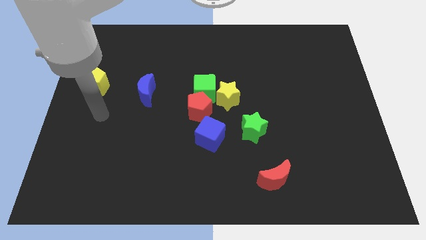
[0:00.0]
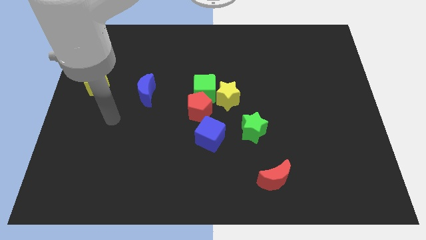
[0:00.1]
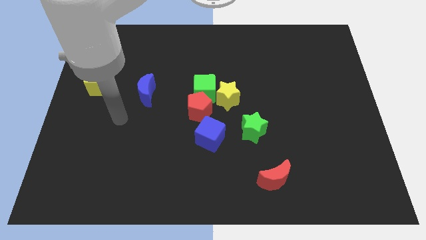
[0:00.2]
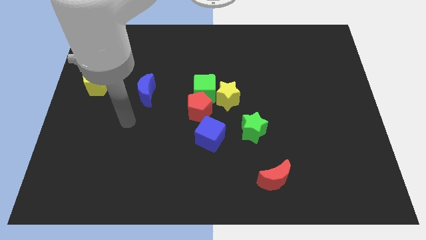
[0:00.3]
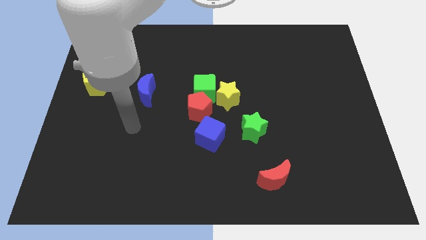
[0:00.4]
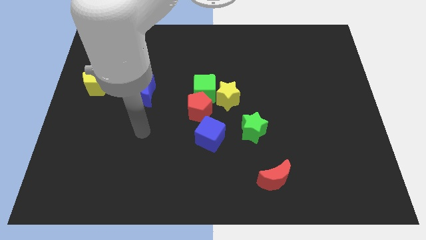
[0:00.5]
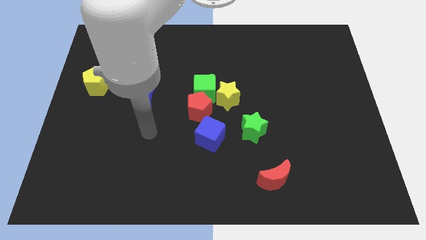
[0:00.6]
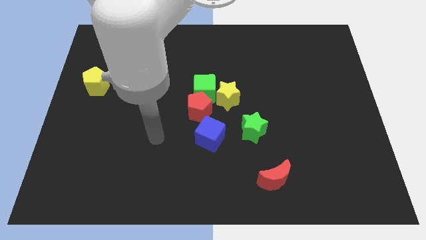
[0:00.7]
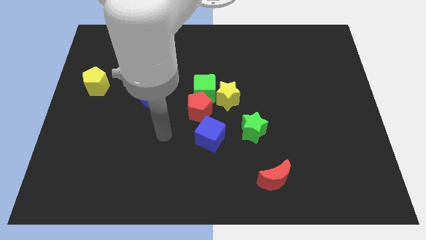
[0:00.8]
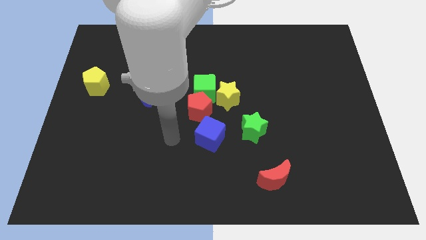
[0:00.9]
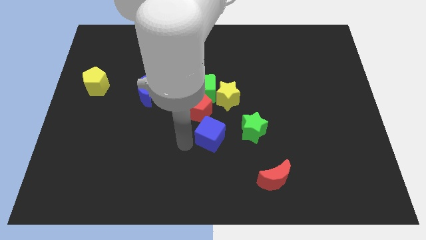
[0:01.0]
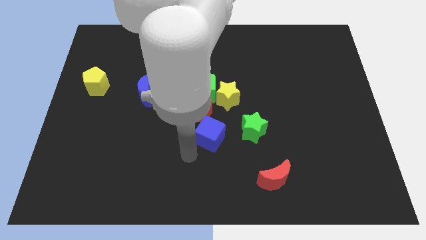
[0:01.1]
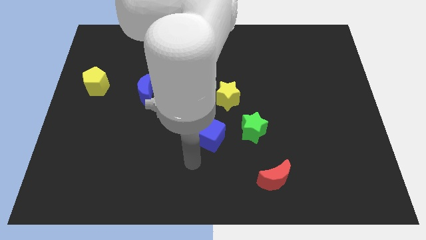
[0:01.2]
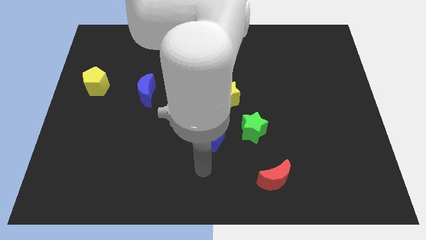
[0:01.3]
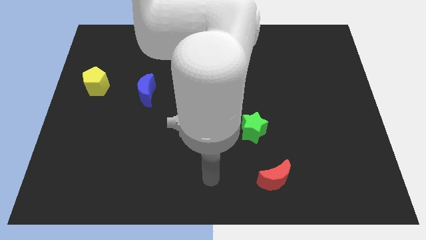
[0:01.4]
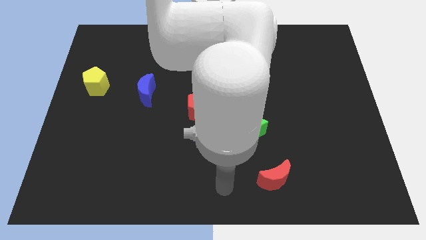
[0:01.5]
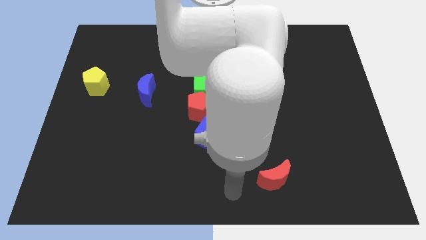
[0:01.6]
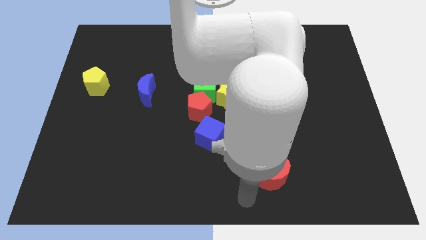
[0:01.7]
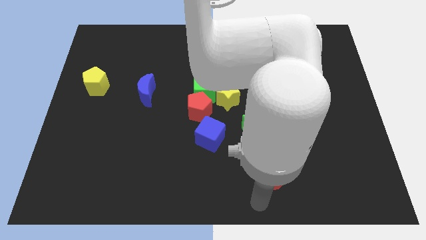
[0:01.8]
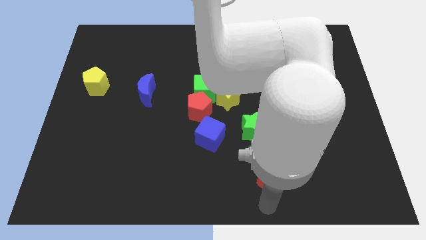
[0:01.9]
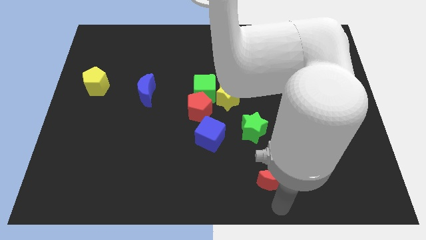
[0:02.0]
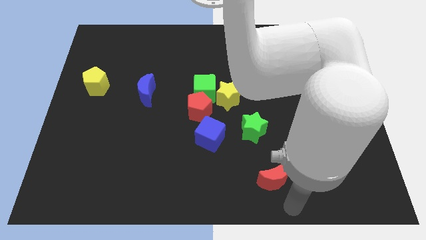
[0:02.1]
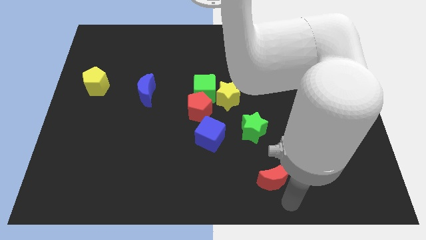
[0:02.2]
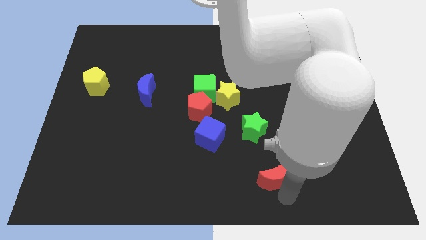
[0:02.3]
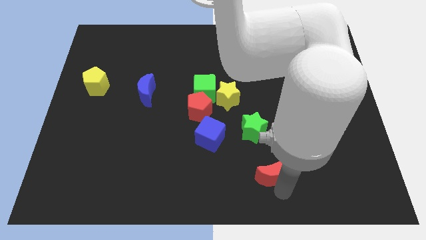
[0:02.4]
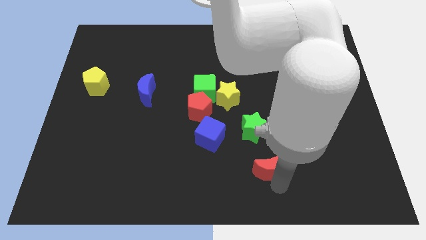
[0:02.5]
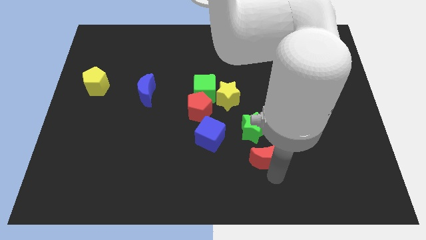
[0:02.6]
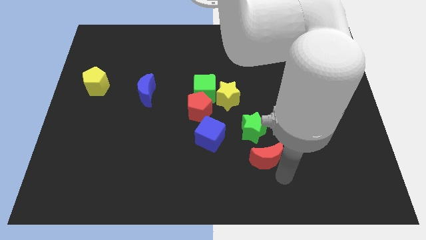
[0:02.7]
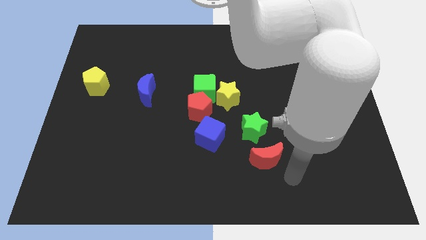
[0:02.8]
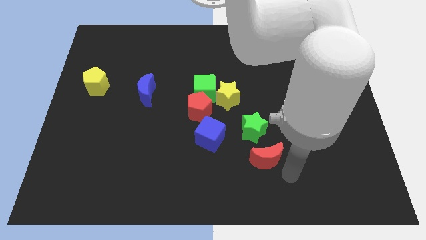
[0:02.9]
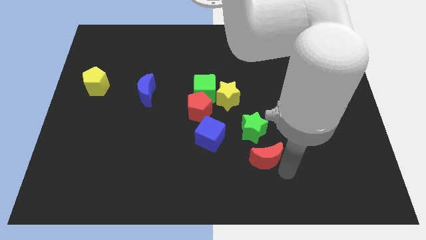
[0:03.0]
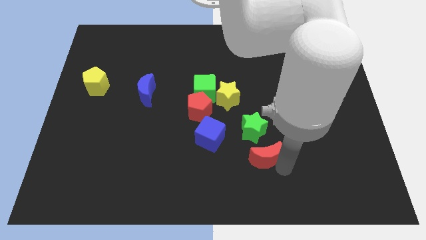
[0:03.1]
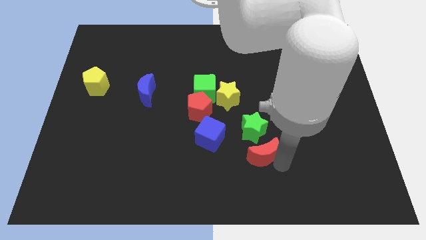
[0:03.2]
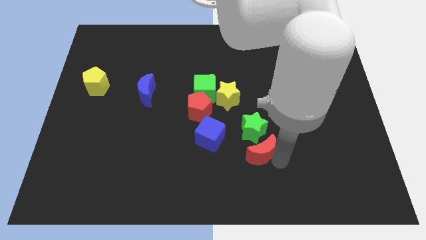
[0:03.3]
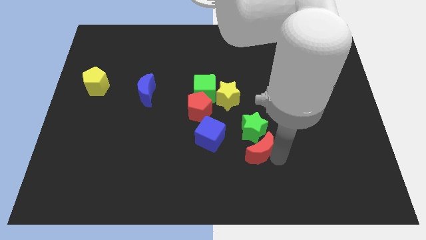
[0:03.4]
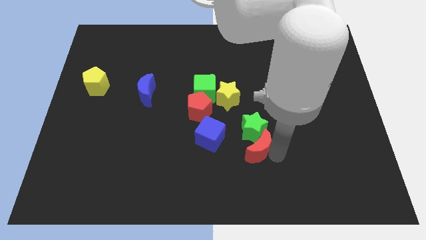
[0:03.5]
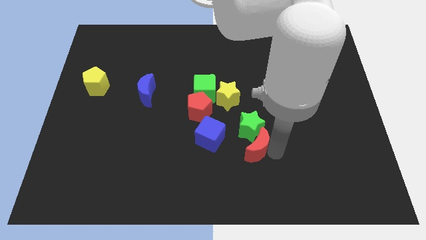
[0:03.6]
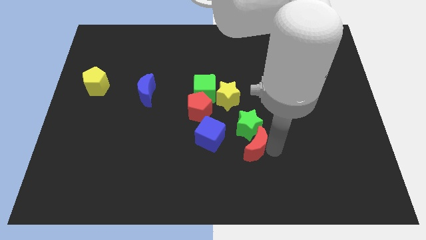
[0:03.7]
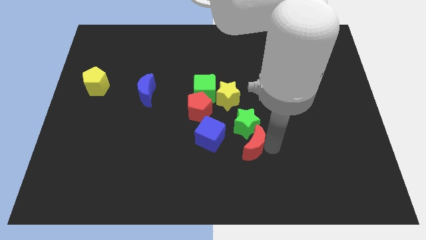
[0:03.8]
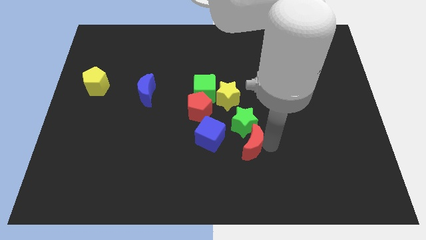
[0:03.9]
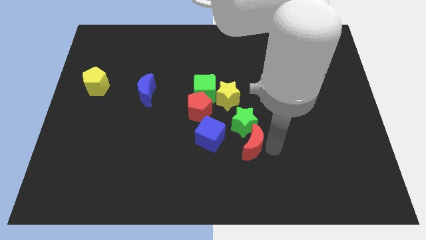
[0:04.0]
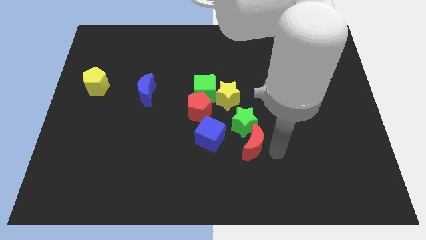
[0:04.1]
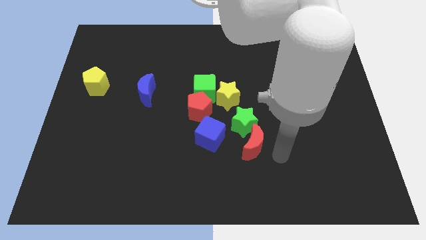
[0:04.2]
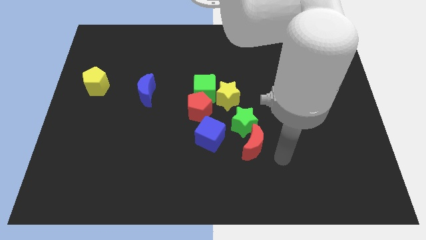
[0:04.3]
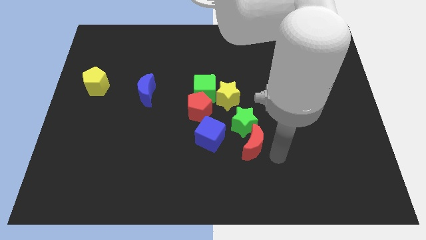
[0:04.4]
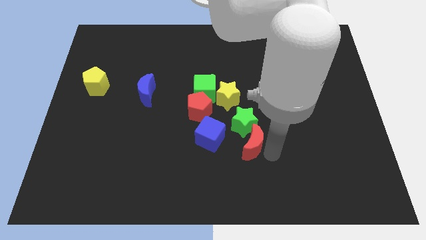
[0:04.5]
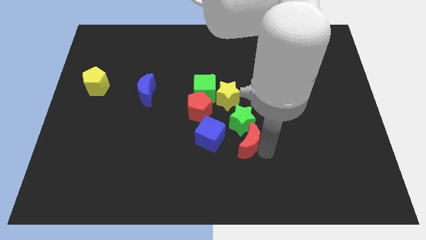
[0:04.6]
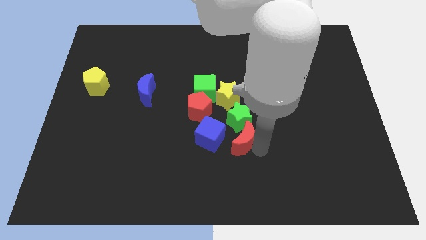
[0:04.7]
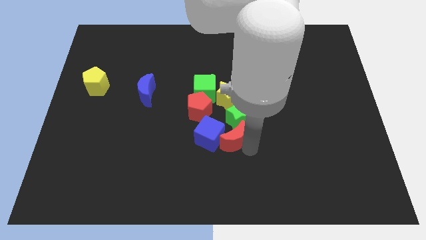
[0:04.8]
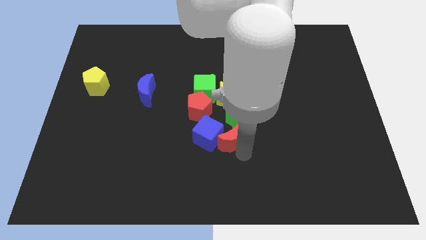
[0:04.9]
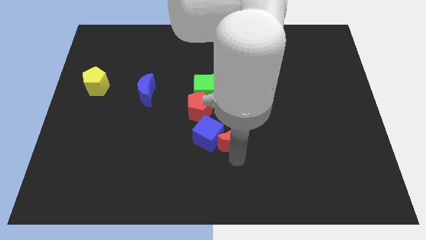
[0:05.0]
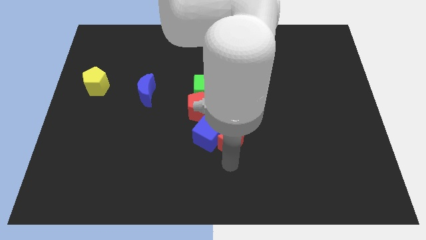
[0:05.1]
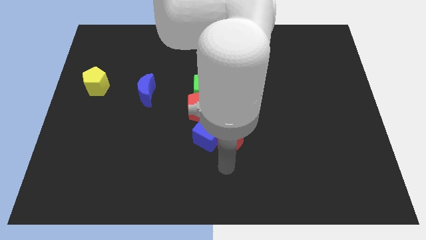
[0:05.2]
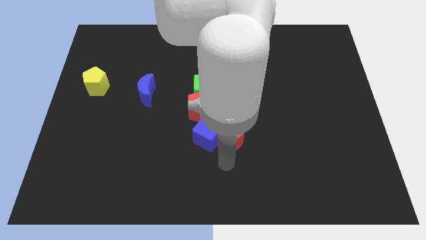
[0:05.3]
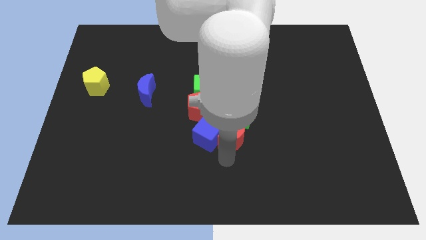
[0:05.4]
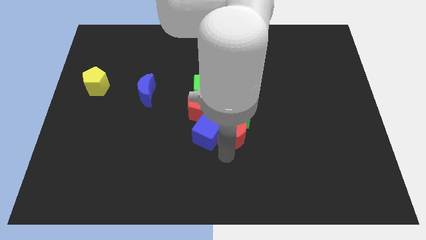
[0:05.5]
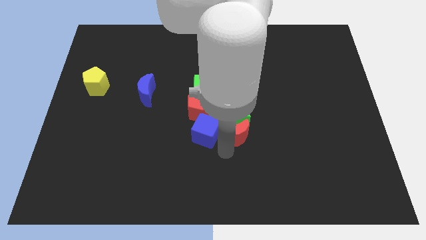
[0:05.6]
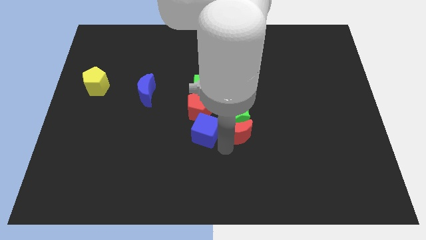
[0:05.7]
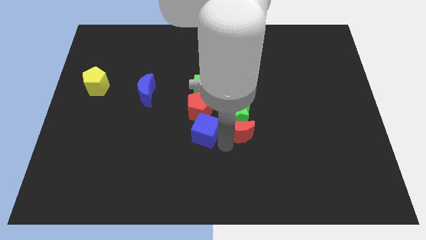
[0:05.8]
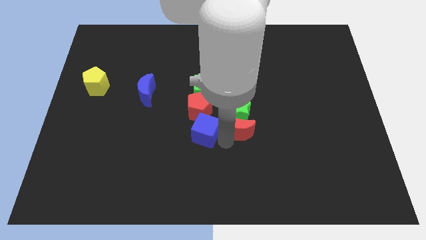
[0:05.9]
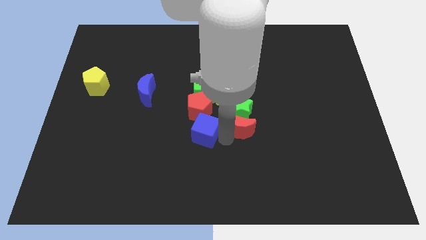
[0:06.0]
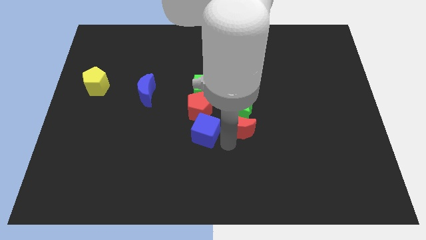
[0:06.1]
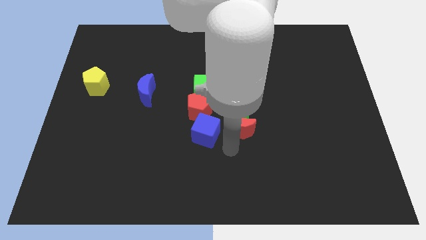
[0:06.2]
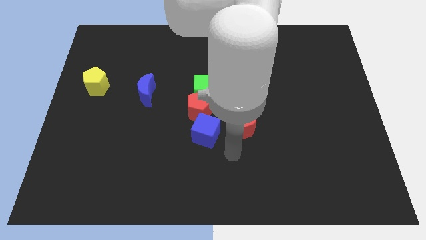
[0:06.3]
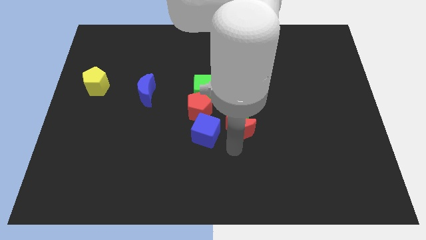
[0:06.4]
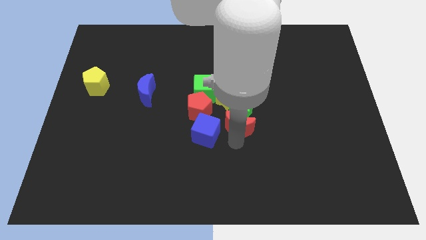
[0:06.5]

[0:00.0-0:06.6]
move the red moon to the right of the red pentagon
